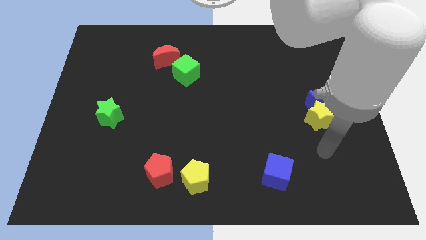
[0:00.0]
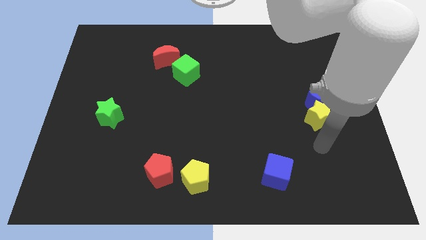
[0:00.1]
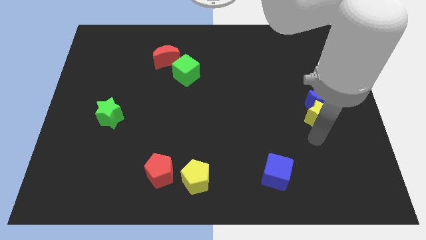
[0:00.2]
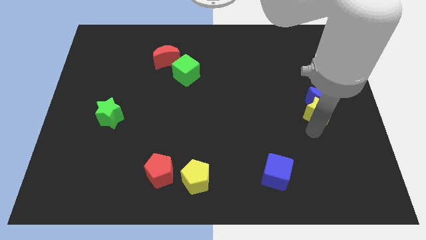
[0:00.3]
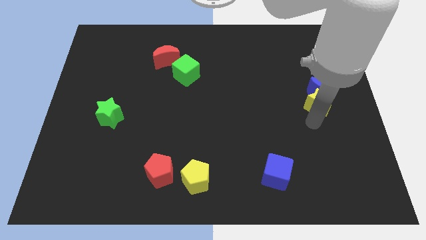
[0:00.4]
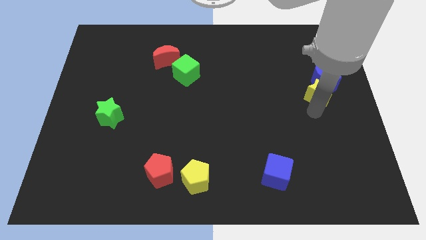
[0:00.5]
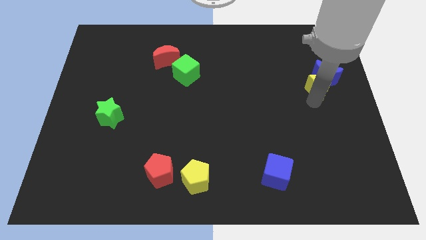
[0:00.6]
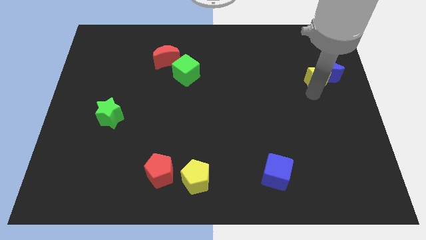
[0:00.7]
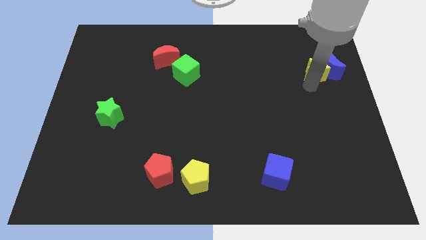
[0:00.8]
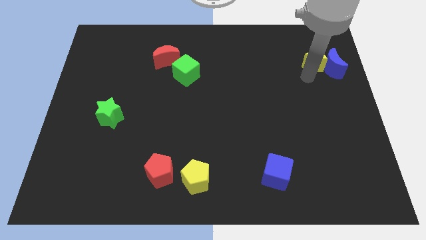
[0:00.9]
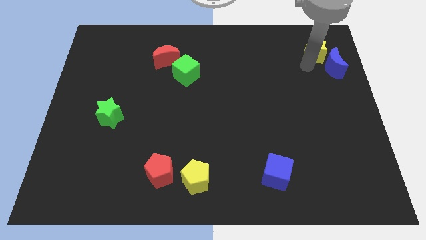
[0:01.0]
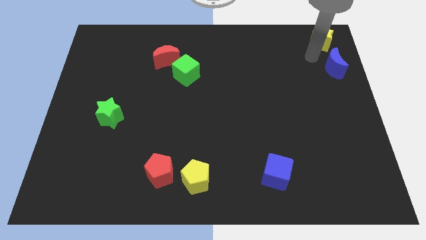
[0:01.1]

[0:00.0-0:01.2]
pull the blue moon apart from the yellow star

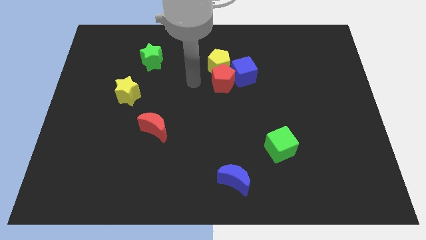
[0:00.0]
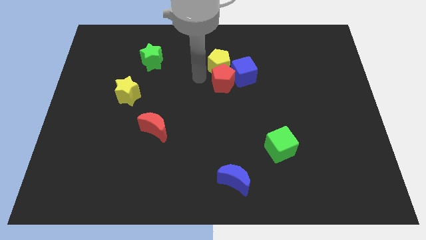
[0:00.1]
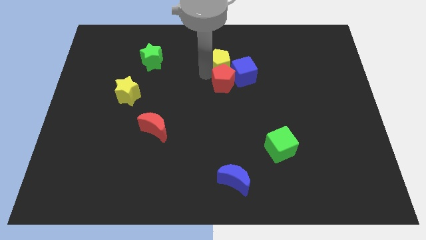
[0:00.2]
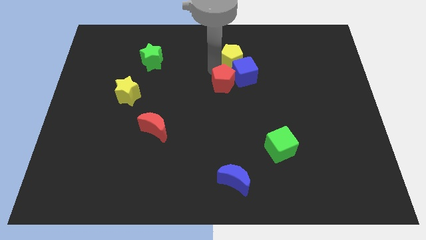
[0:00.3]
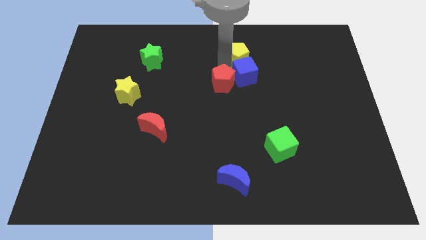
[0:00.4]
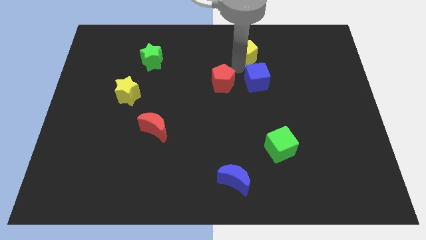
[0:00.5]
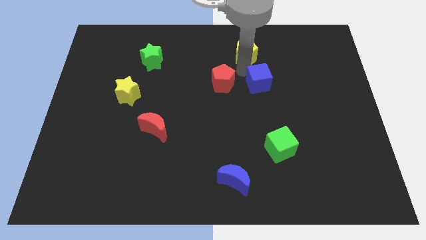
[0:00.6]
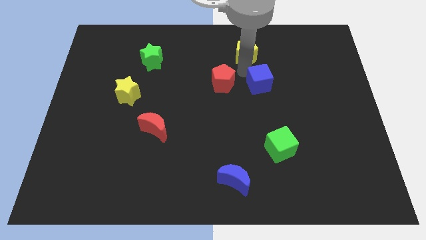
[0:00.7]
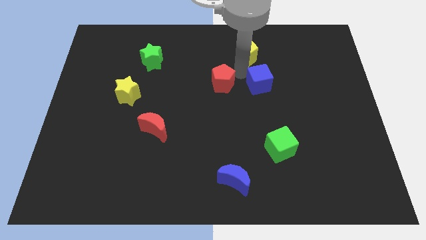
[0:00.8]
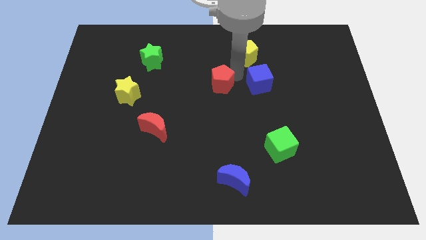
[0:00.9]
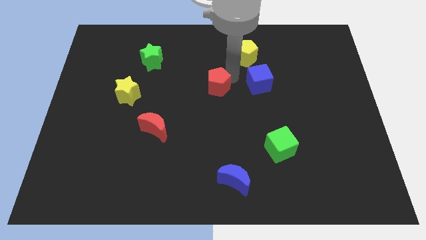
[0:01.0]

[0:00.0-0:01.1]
move the red pentagon away from the yellow pentagon and blue cube

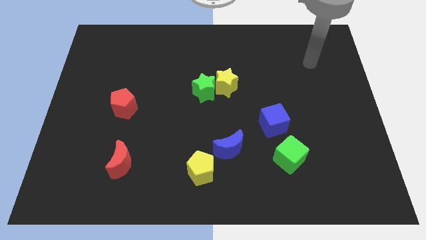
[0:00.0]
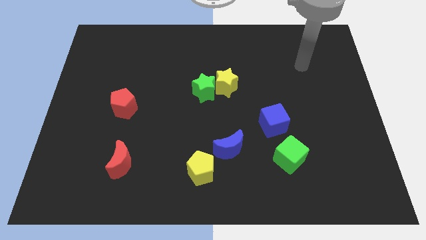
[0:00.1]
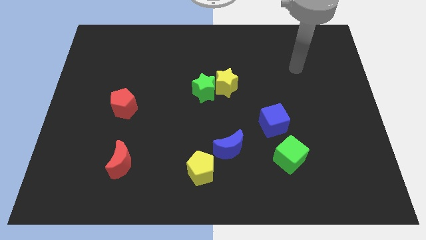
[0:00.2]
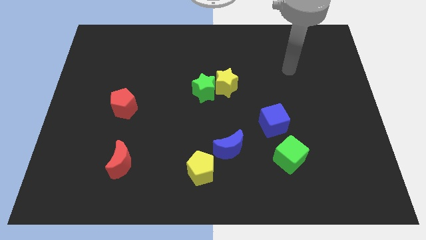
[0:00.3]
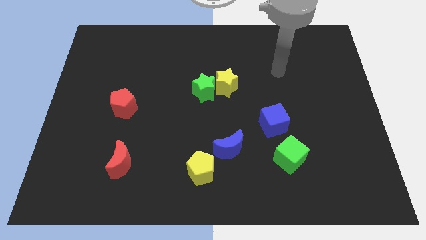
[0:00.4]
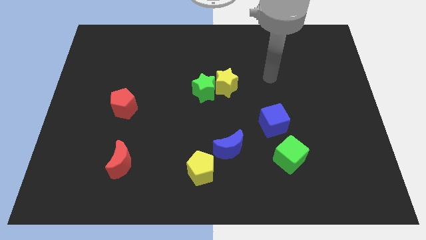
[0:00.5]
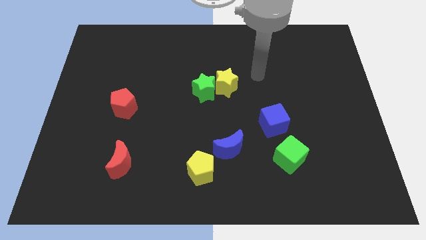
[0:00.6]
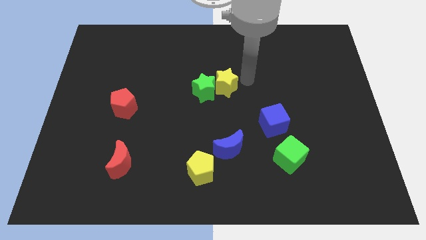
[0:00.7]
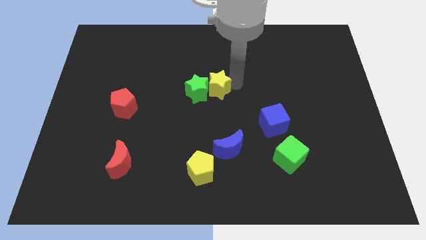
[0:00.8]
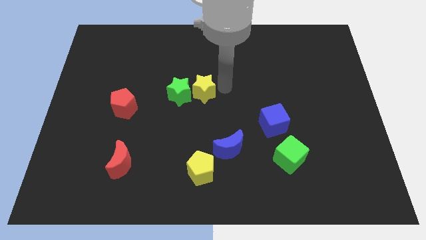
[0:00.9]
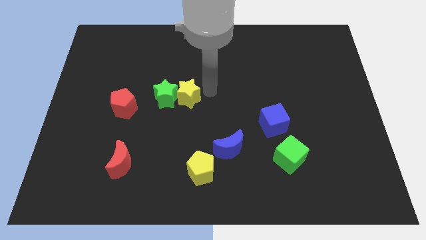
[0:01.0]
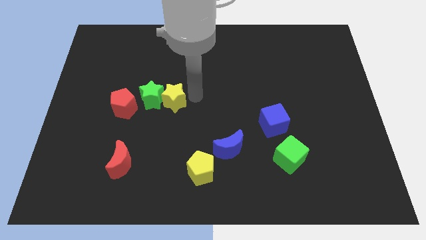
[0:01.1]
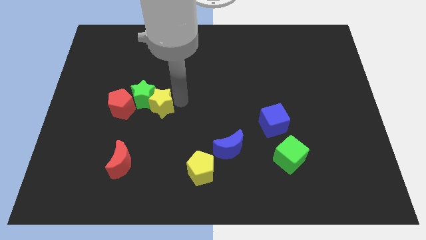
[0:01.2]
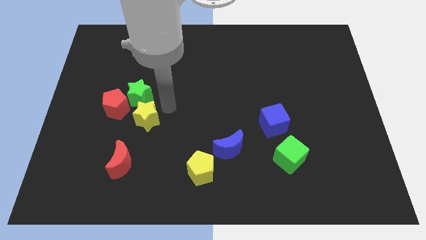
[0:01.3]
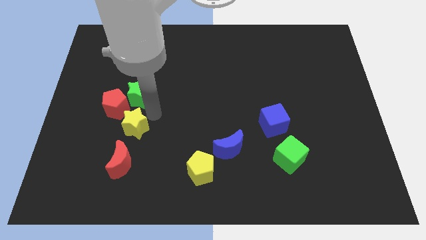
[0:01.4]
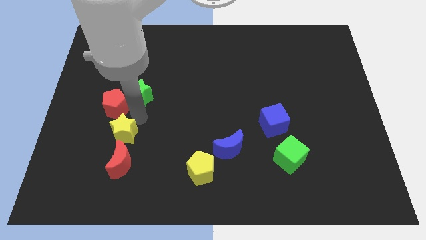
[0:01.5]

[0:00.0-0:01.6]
separate the green star from the yellow star

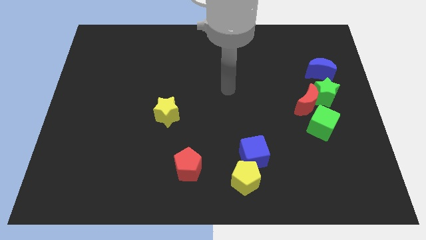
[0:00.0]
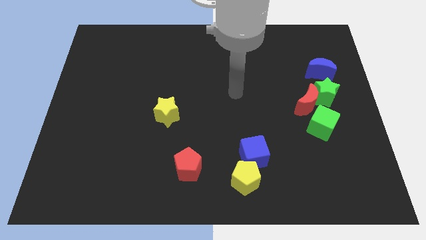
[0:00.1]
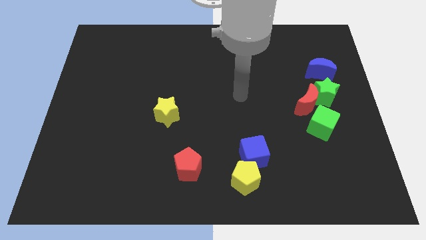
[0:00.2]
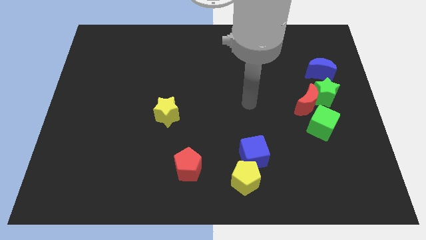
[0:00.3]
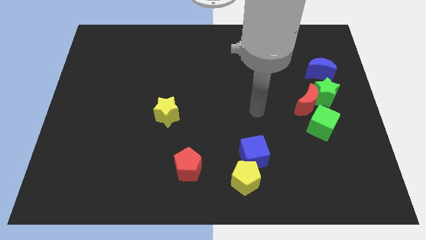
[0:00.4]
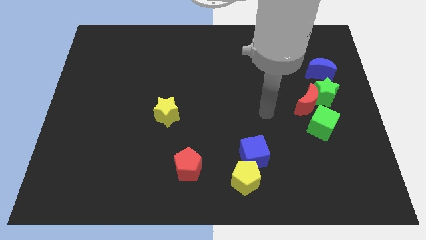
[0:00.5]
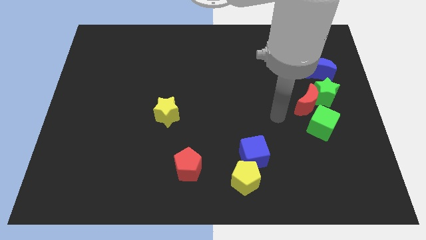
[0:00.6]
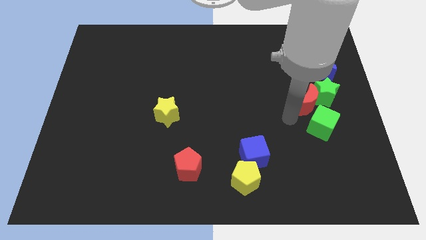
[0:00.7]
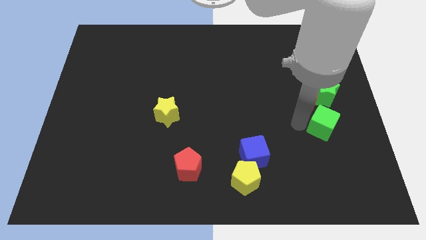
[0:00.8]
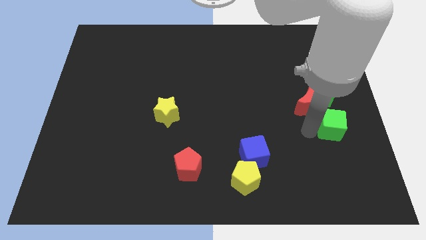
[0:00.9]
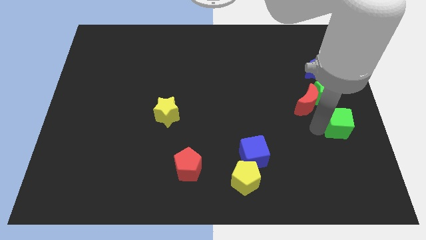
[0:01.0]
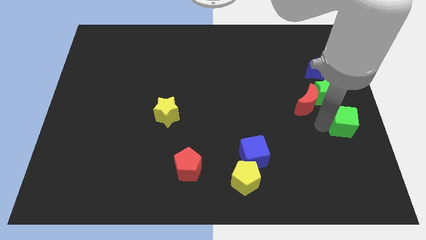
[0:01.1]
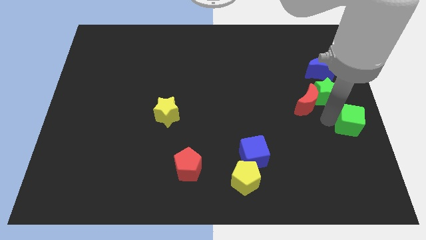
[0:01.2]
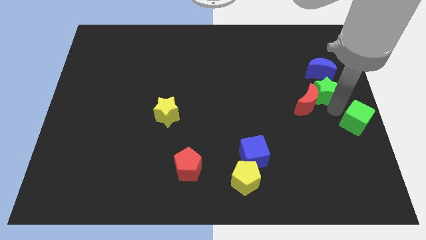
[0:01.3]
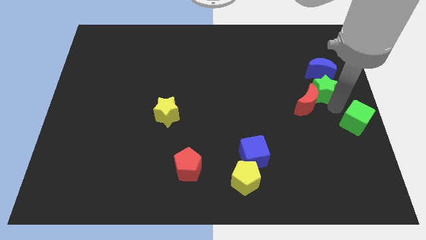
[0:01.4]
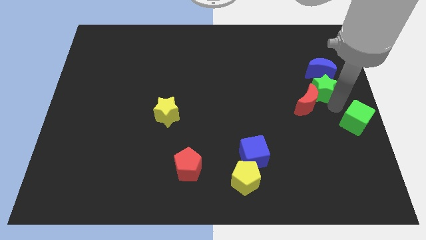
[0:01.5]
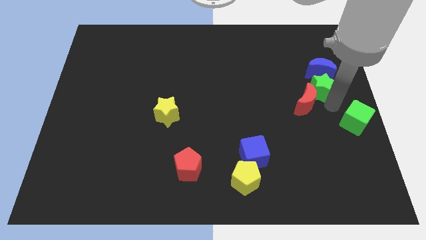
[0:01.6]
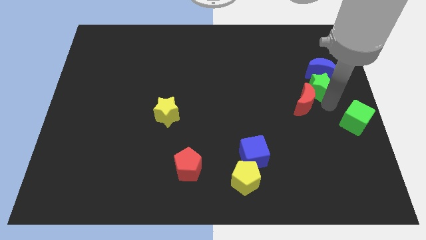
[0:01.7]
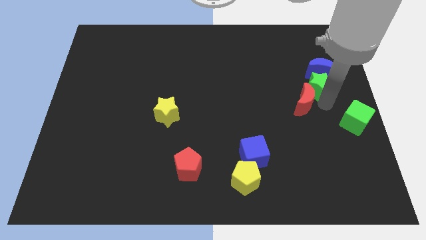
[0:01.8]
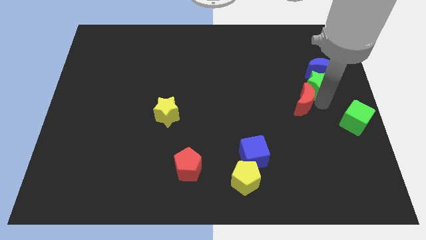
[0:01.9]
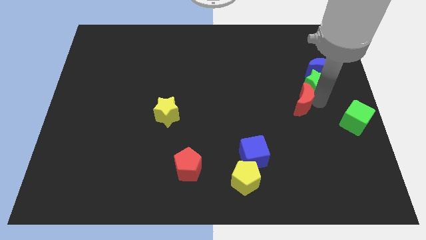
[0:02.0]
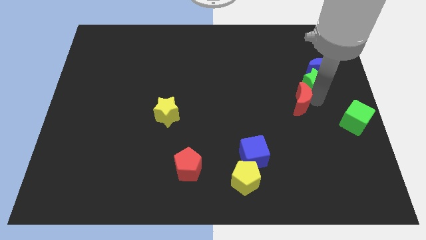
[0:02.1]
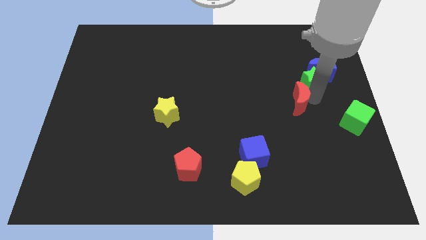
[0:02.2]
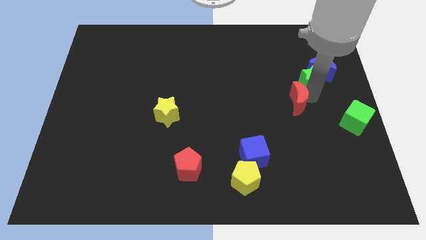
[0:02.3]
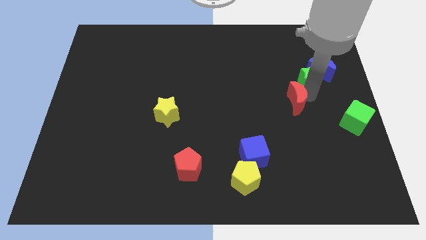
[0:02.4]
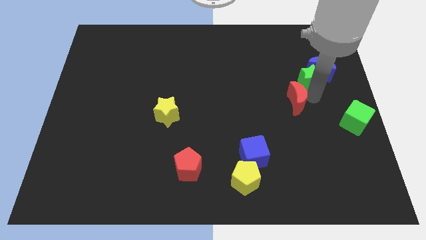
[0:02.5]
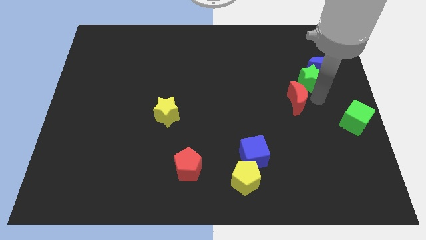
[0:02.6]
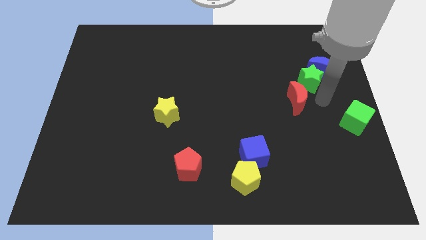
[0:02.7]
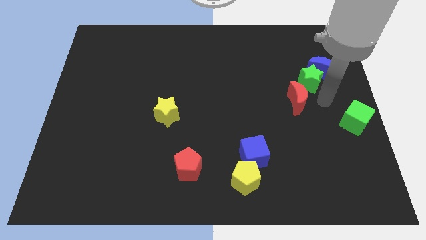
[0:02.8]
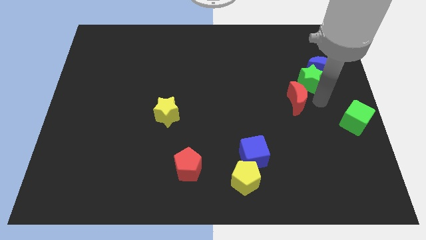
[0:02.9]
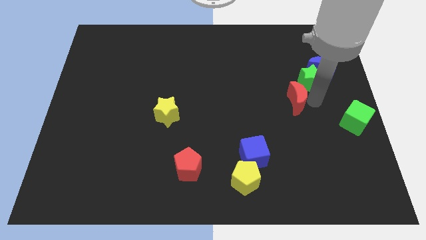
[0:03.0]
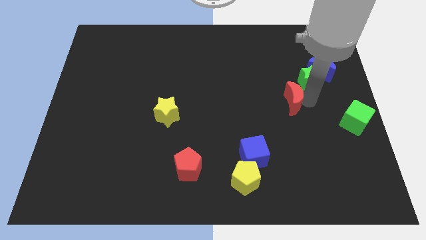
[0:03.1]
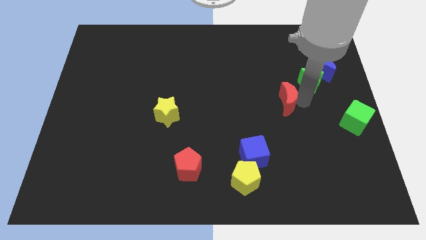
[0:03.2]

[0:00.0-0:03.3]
move the red moon away from the green star and green cube

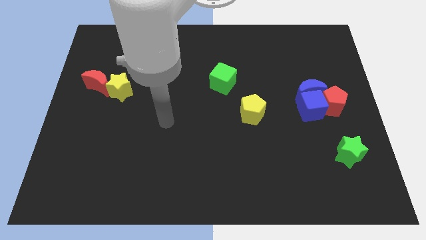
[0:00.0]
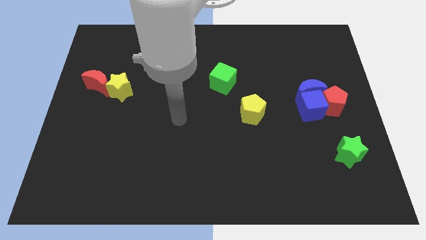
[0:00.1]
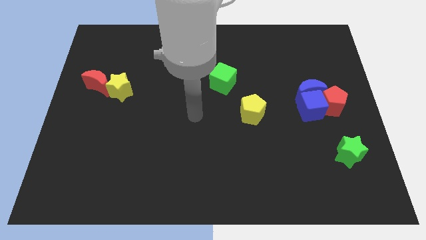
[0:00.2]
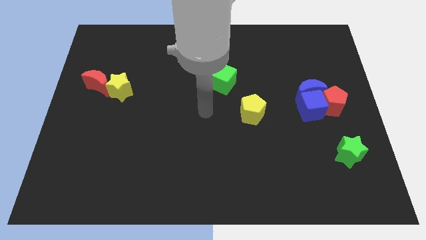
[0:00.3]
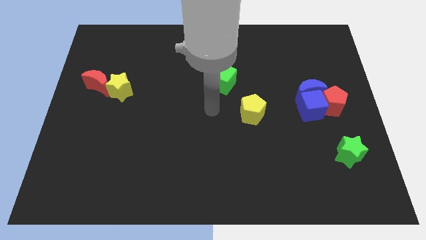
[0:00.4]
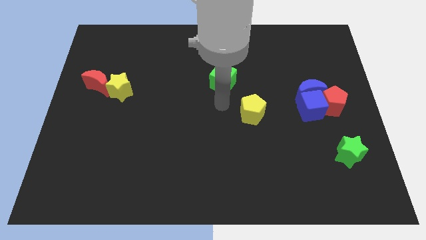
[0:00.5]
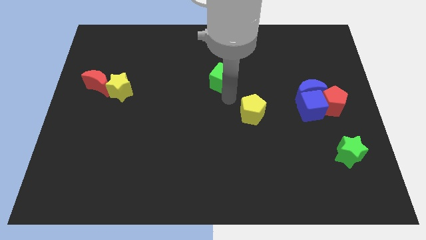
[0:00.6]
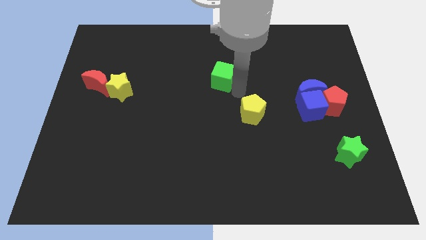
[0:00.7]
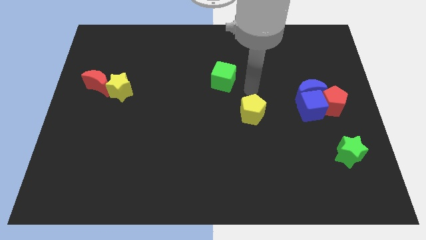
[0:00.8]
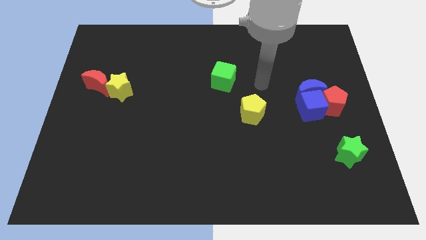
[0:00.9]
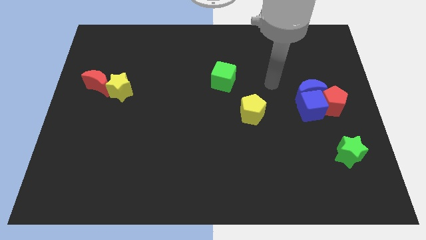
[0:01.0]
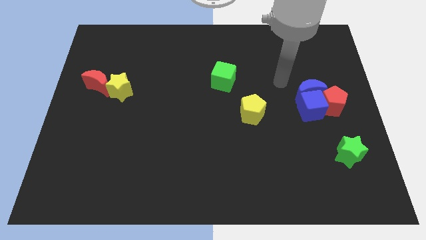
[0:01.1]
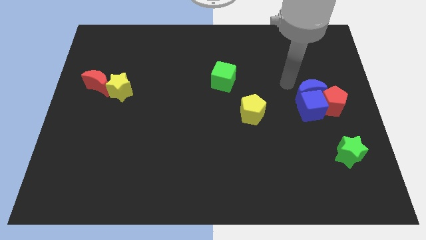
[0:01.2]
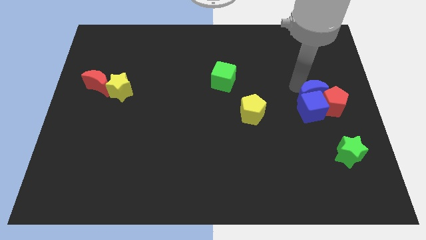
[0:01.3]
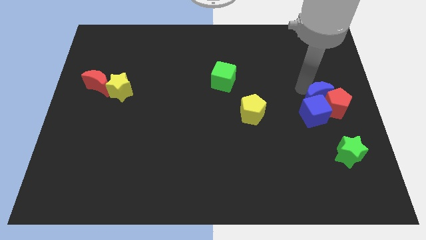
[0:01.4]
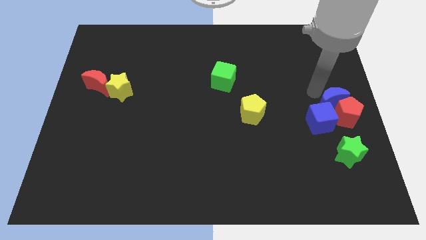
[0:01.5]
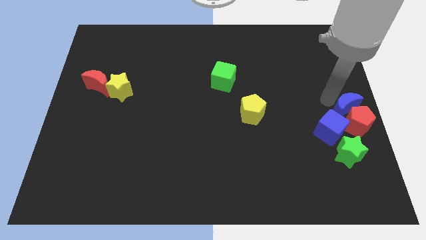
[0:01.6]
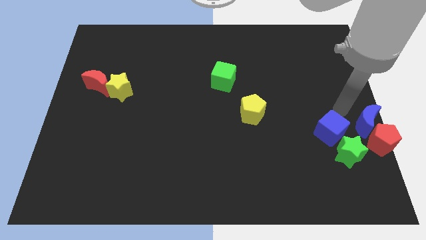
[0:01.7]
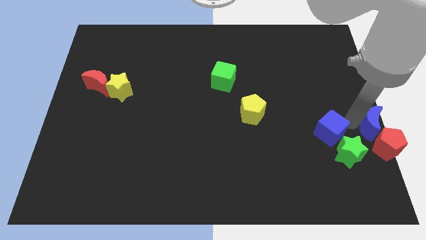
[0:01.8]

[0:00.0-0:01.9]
move the blue cube away from the blue moon and red pentagon

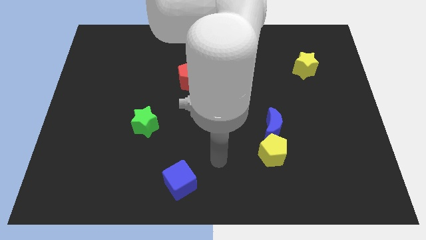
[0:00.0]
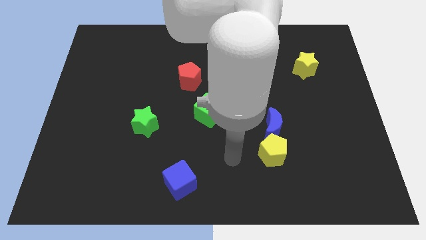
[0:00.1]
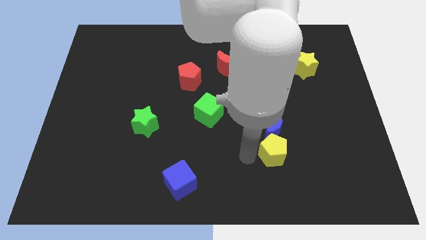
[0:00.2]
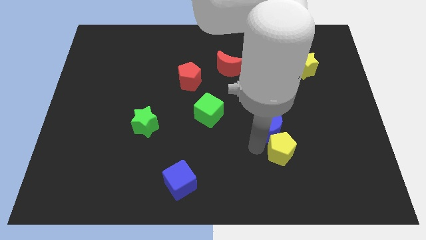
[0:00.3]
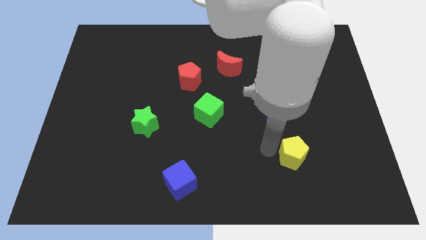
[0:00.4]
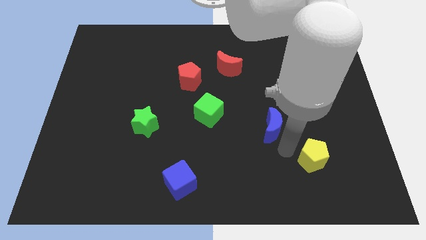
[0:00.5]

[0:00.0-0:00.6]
separate the blue moon from the yellow pentagon
